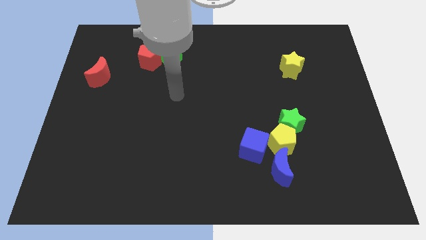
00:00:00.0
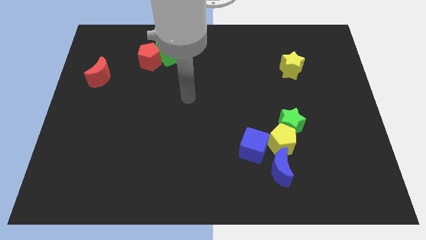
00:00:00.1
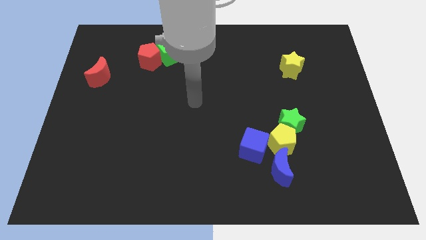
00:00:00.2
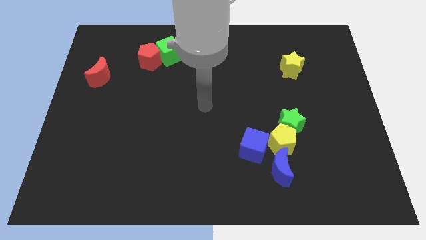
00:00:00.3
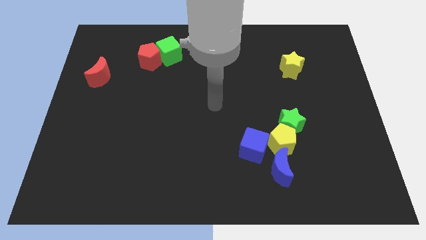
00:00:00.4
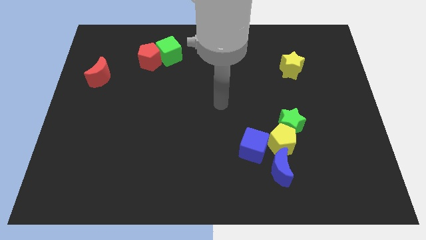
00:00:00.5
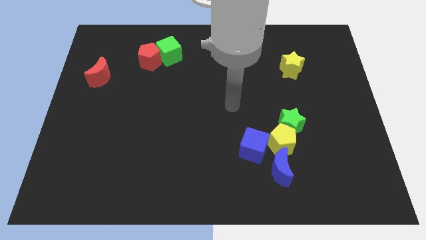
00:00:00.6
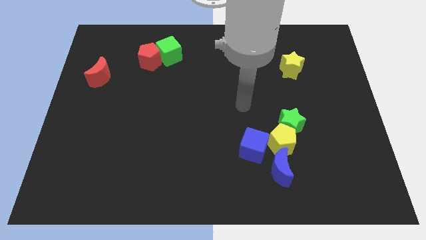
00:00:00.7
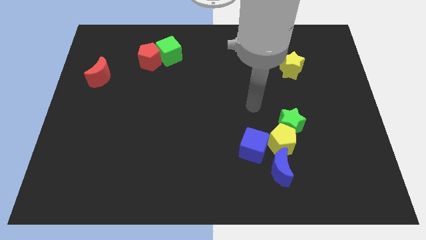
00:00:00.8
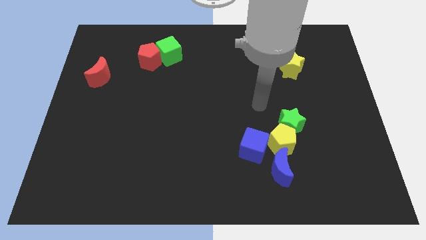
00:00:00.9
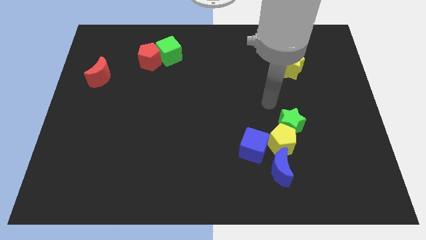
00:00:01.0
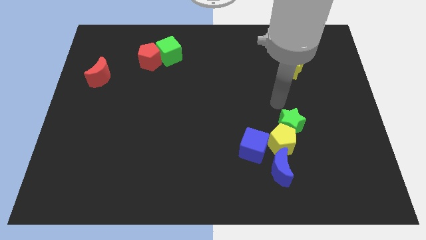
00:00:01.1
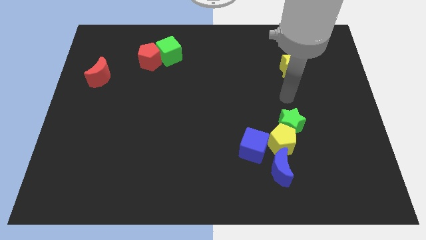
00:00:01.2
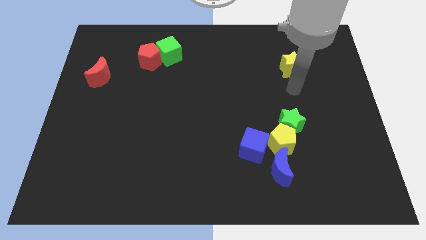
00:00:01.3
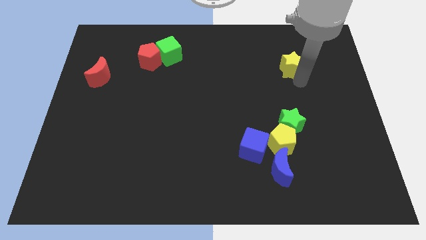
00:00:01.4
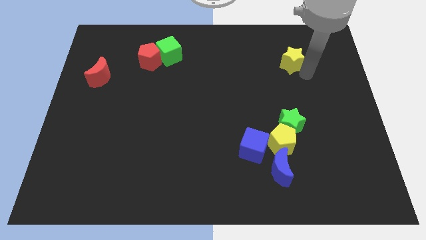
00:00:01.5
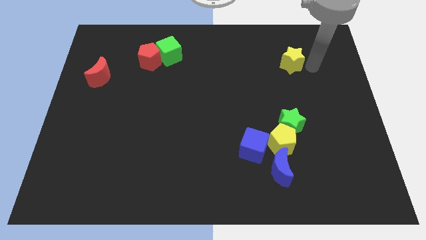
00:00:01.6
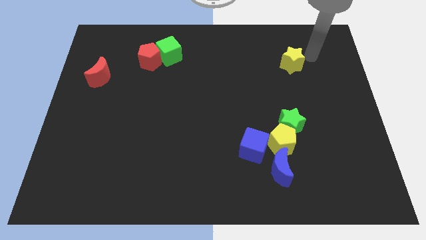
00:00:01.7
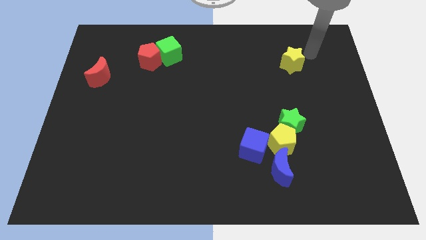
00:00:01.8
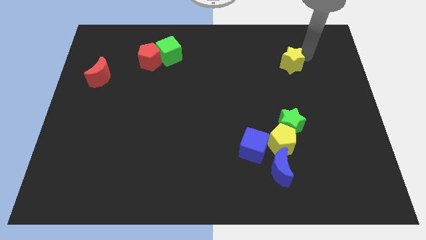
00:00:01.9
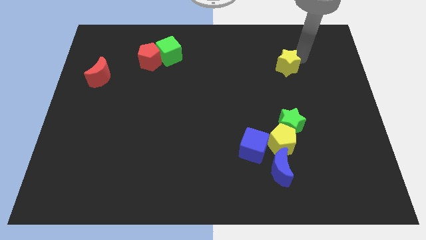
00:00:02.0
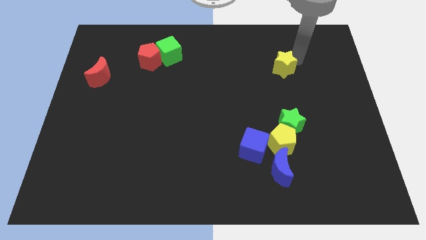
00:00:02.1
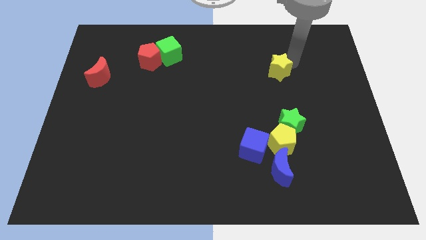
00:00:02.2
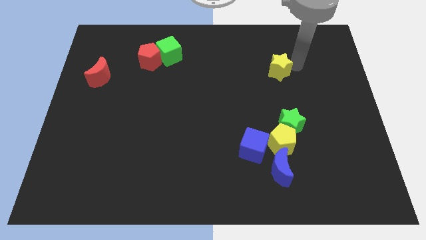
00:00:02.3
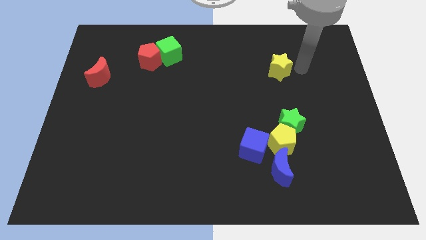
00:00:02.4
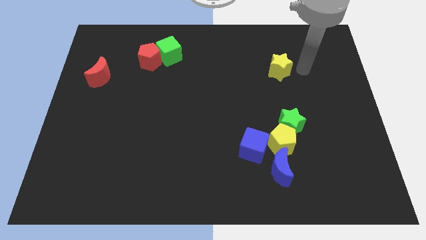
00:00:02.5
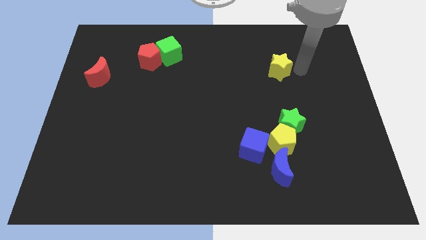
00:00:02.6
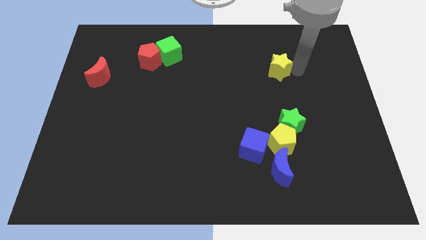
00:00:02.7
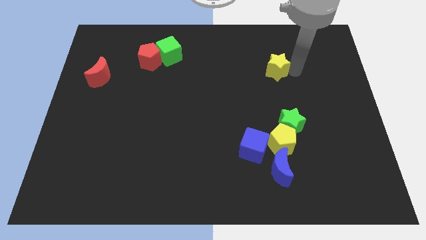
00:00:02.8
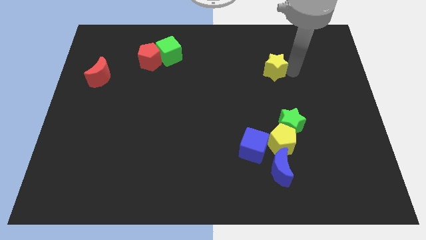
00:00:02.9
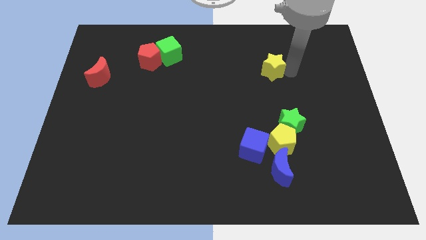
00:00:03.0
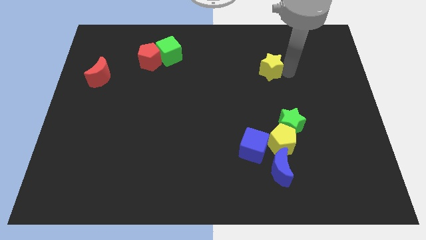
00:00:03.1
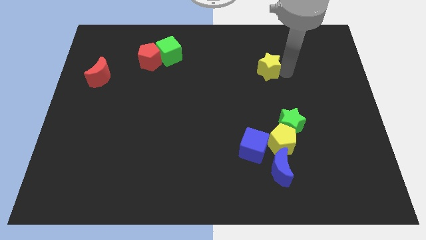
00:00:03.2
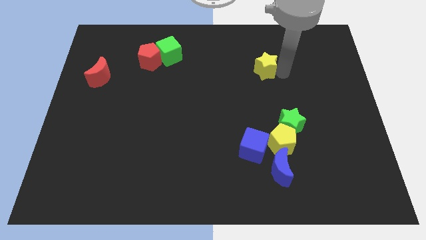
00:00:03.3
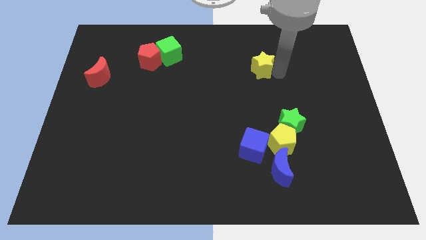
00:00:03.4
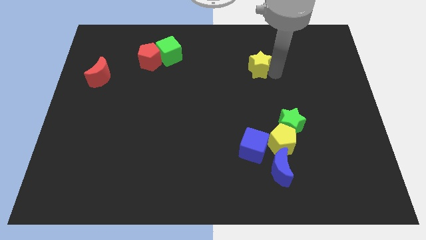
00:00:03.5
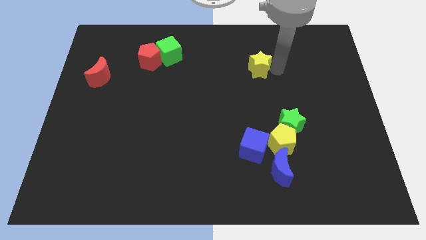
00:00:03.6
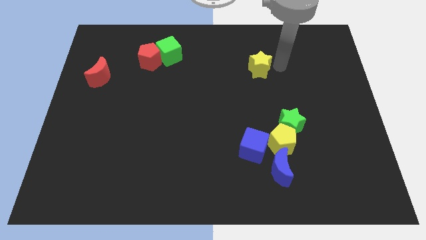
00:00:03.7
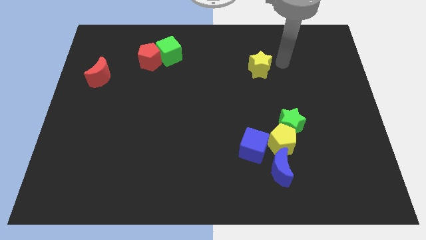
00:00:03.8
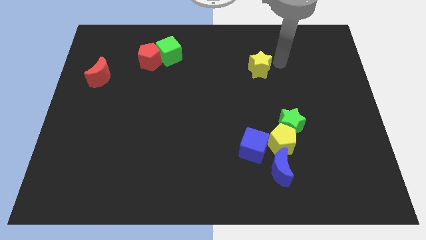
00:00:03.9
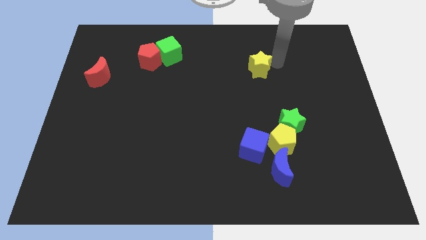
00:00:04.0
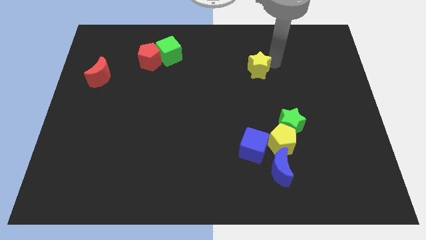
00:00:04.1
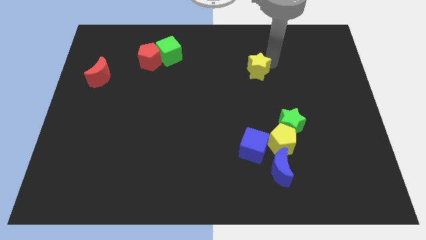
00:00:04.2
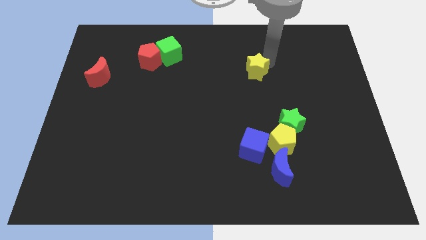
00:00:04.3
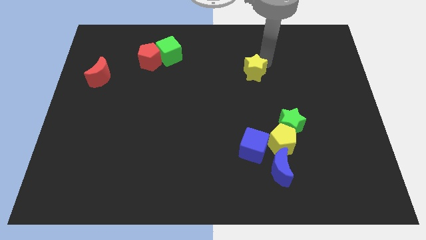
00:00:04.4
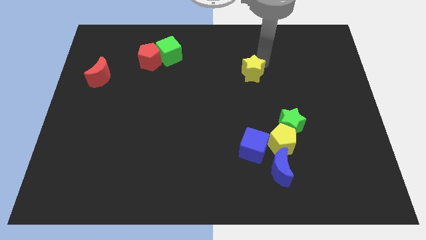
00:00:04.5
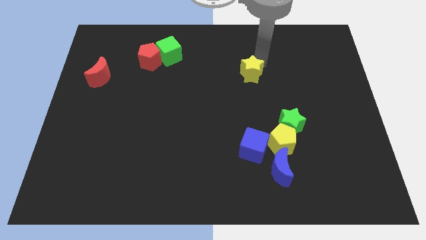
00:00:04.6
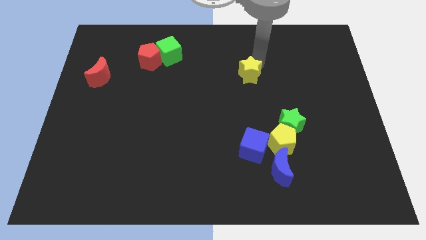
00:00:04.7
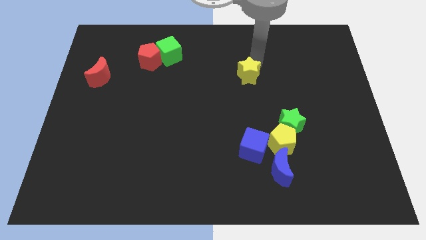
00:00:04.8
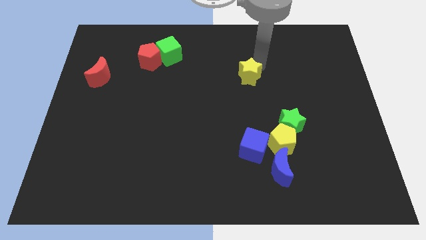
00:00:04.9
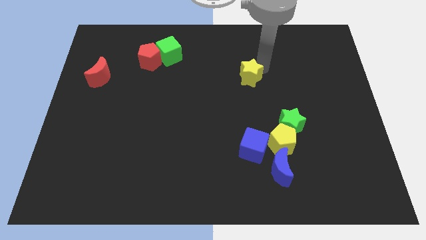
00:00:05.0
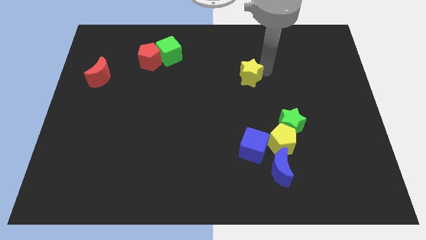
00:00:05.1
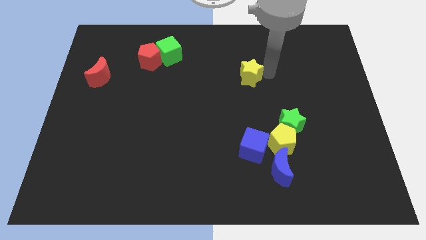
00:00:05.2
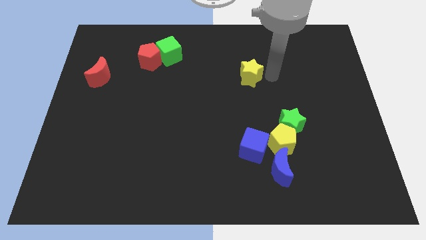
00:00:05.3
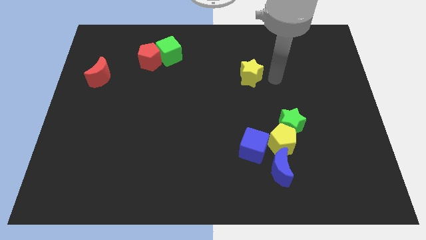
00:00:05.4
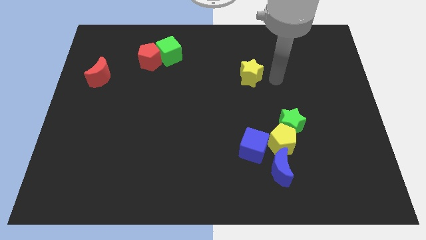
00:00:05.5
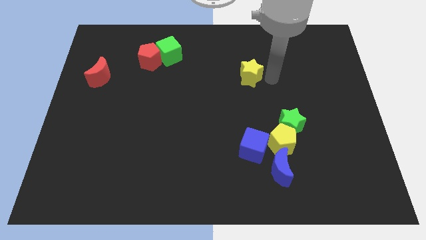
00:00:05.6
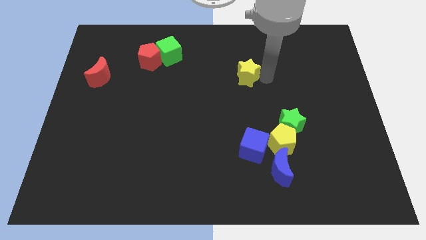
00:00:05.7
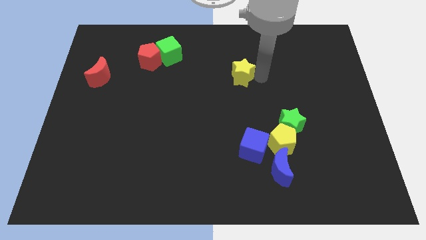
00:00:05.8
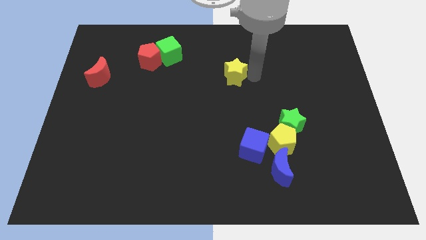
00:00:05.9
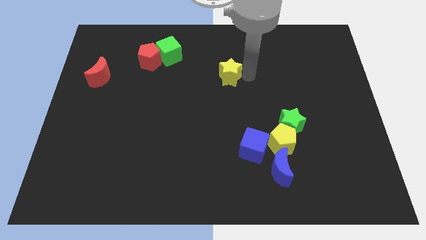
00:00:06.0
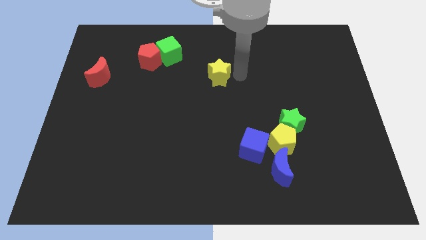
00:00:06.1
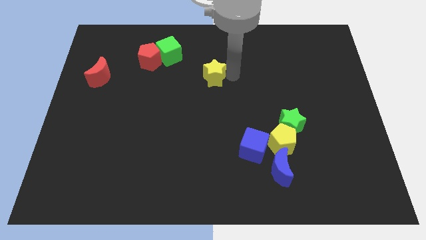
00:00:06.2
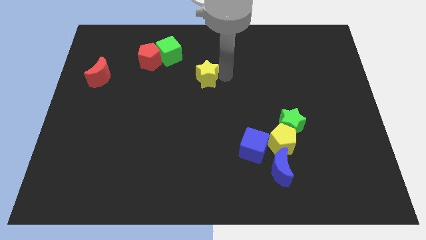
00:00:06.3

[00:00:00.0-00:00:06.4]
slide the yellow star to the left

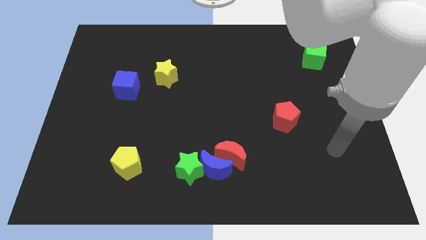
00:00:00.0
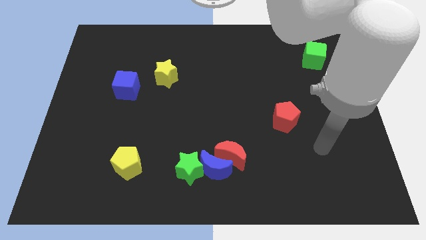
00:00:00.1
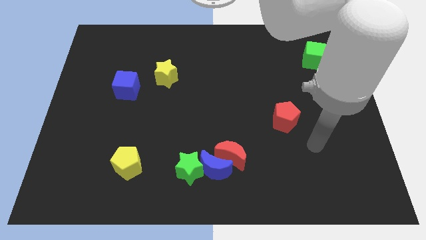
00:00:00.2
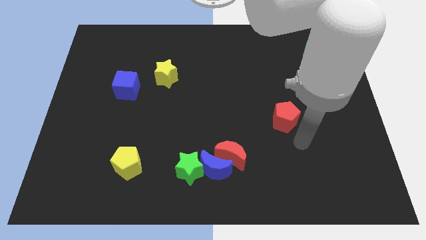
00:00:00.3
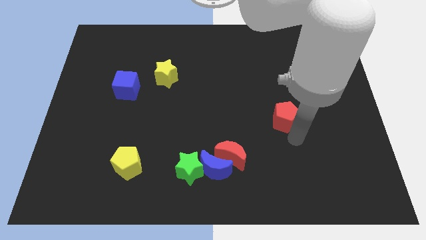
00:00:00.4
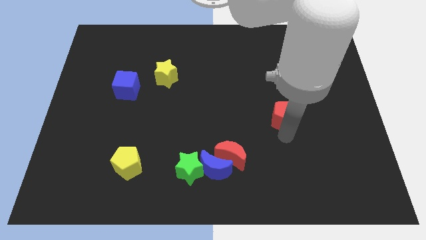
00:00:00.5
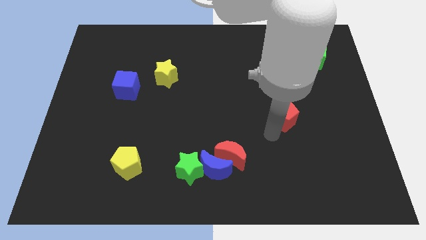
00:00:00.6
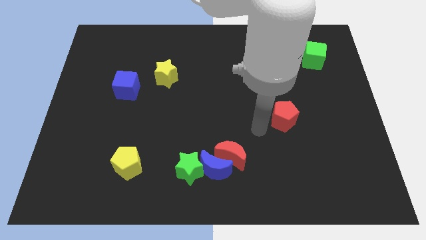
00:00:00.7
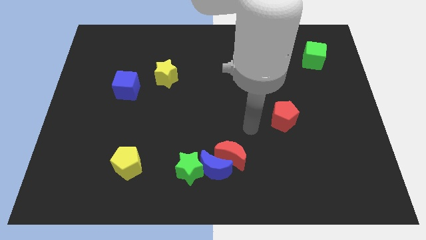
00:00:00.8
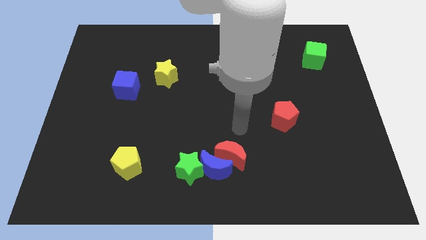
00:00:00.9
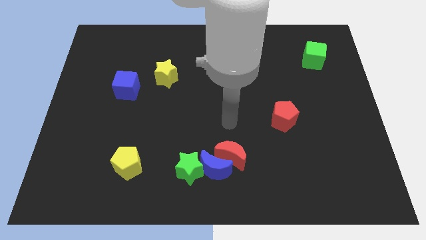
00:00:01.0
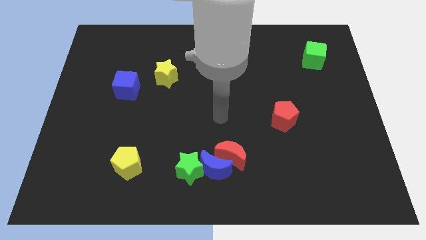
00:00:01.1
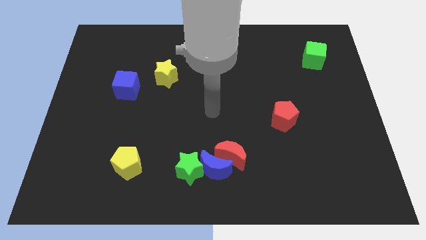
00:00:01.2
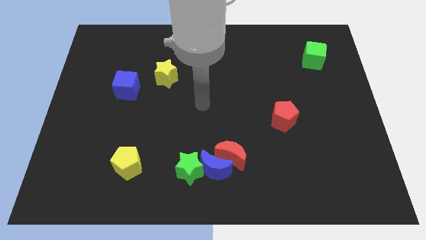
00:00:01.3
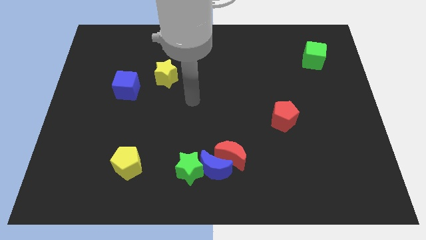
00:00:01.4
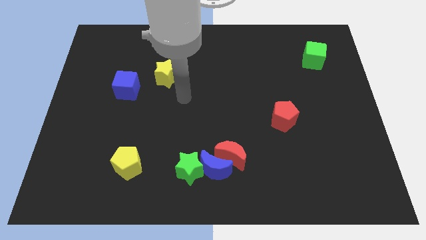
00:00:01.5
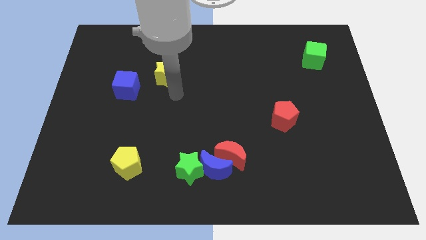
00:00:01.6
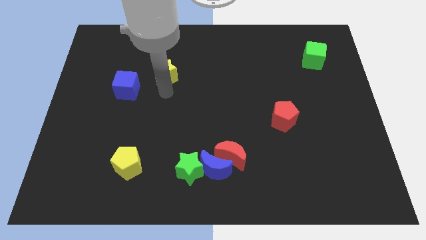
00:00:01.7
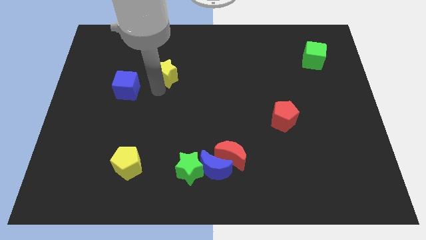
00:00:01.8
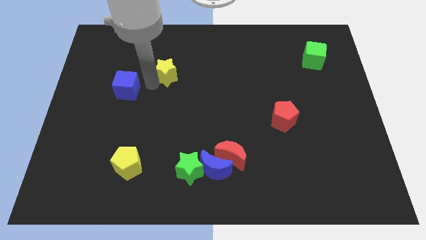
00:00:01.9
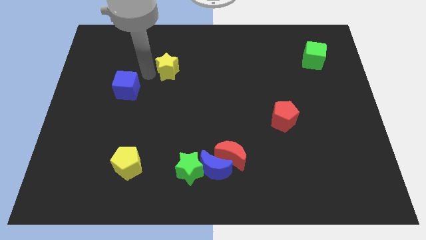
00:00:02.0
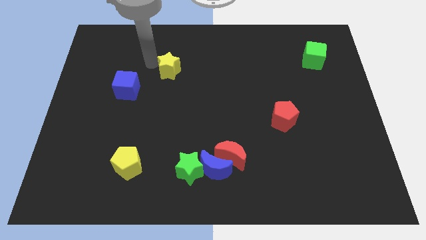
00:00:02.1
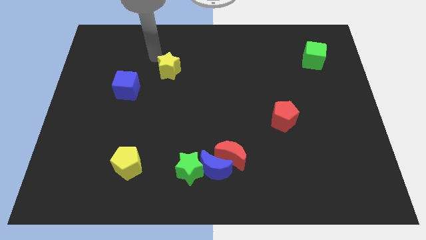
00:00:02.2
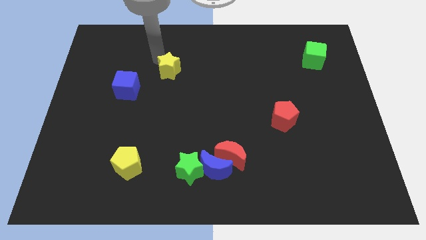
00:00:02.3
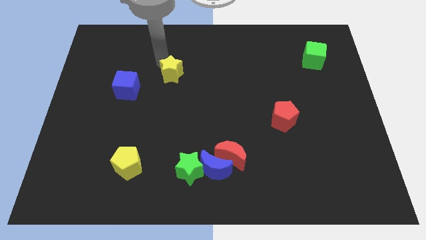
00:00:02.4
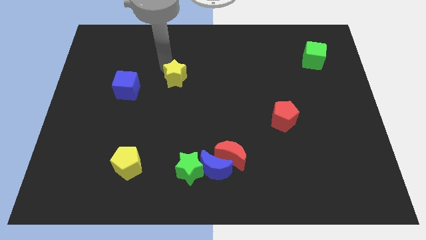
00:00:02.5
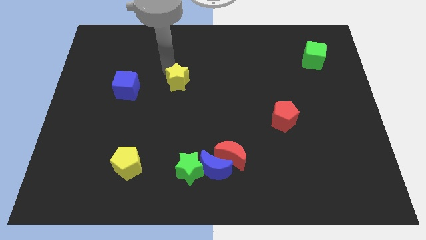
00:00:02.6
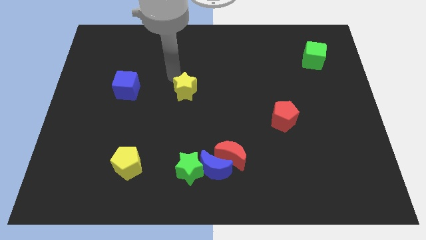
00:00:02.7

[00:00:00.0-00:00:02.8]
slightly slide the yellow star downwards and then to the right
